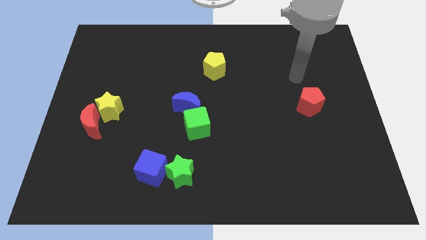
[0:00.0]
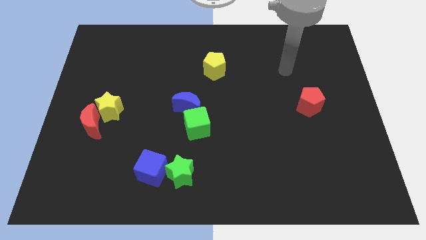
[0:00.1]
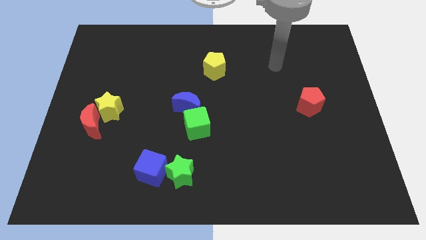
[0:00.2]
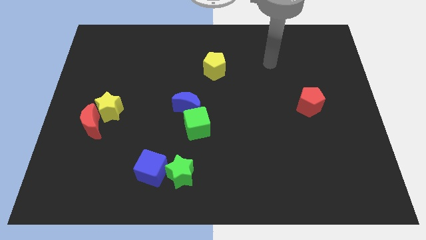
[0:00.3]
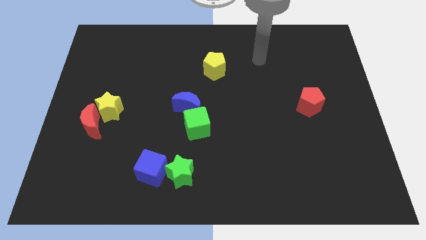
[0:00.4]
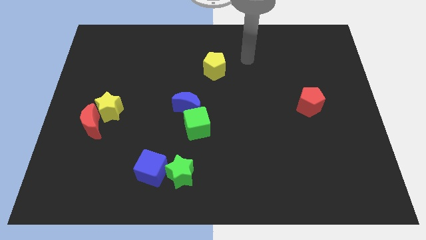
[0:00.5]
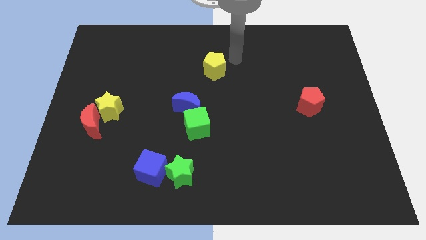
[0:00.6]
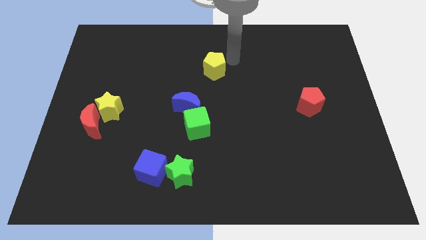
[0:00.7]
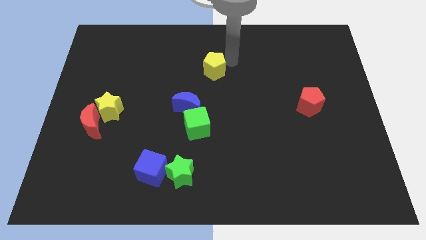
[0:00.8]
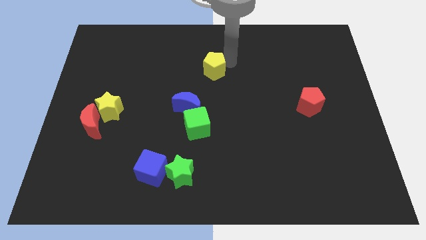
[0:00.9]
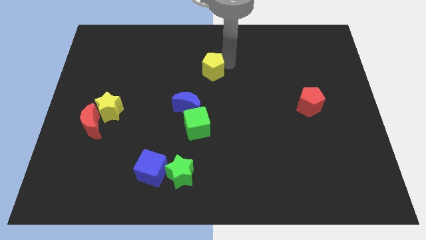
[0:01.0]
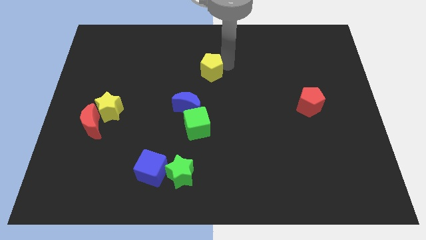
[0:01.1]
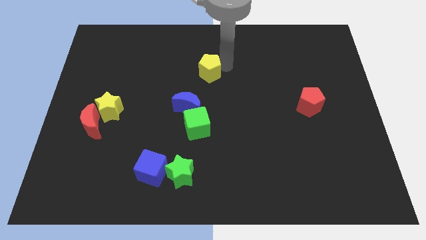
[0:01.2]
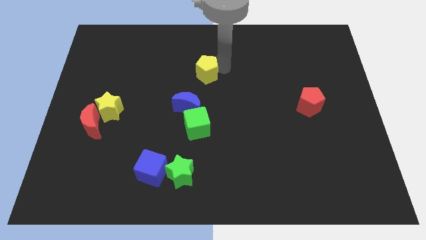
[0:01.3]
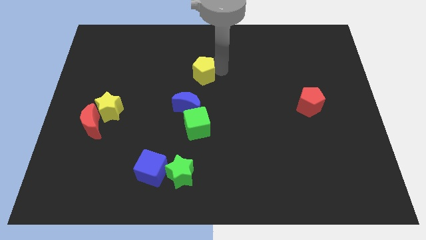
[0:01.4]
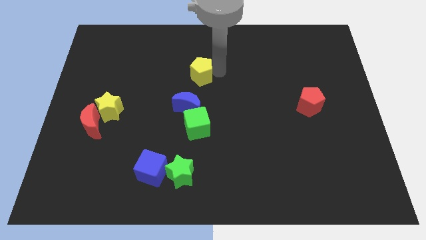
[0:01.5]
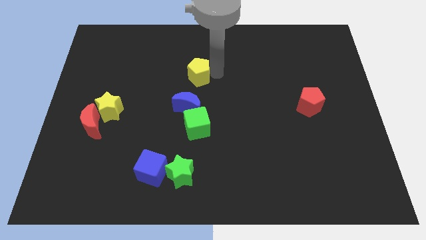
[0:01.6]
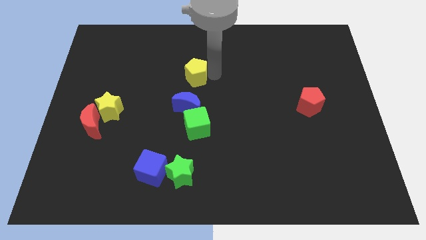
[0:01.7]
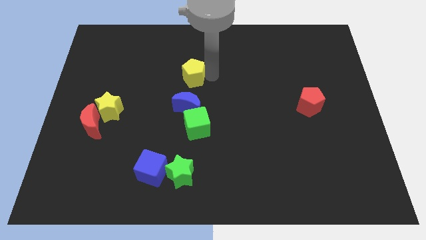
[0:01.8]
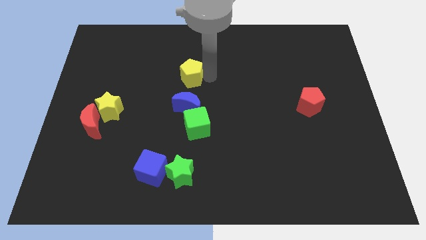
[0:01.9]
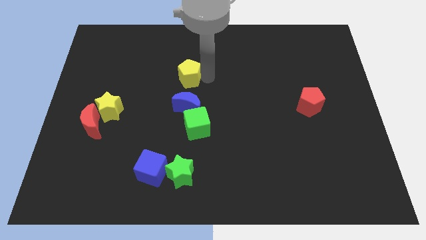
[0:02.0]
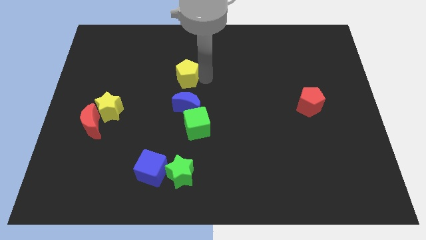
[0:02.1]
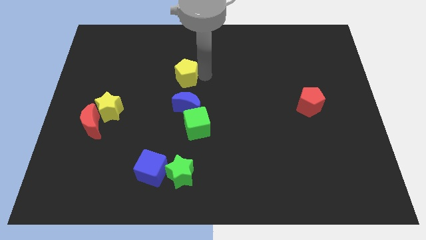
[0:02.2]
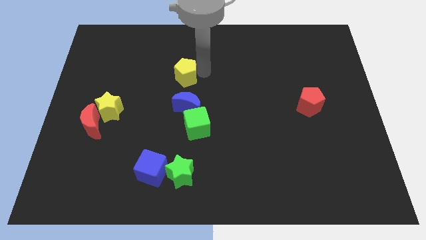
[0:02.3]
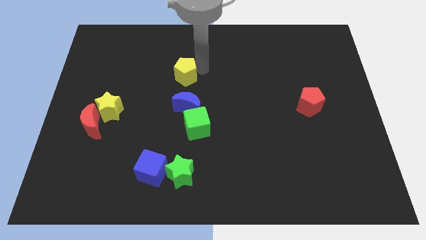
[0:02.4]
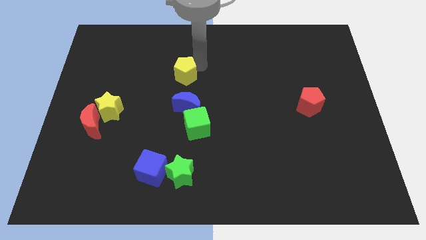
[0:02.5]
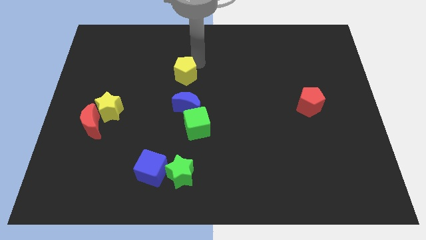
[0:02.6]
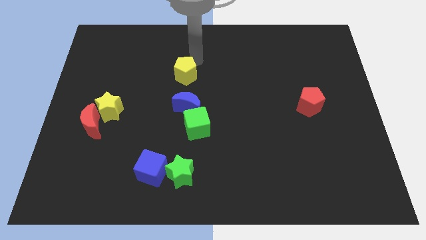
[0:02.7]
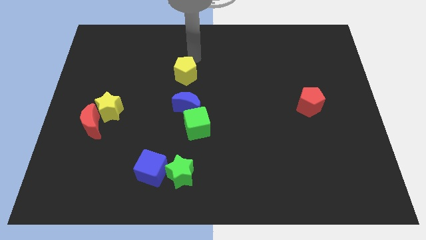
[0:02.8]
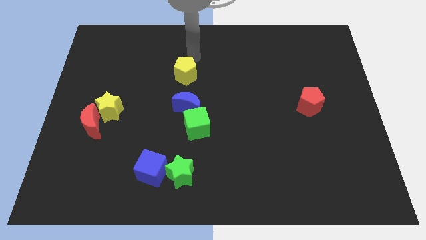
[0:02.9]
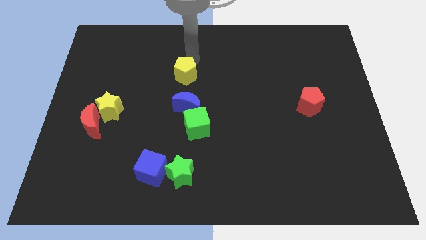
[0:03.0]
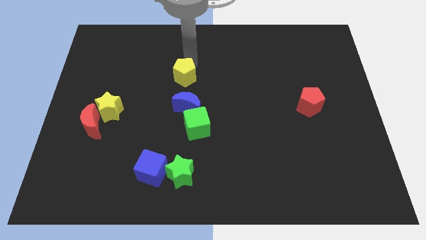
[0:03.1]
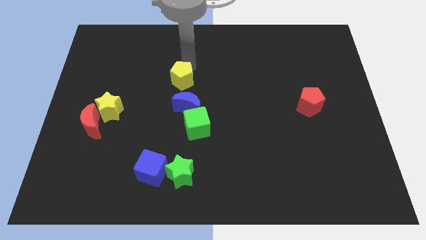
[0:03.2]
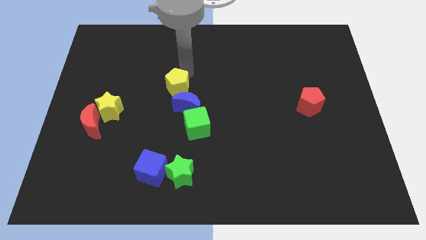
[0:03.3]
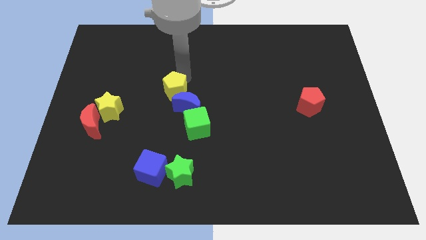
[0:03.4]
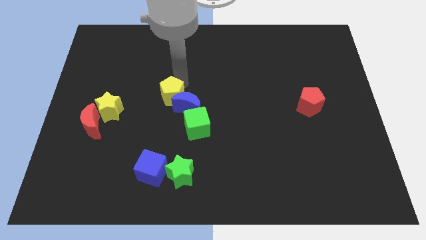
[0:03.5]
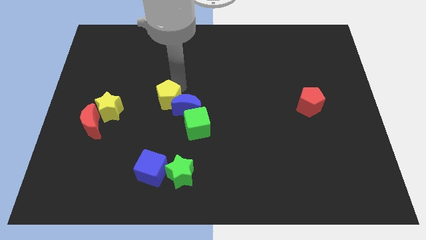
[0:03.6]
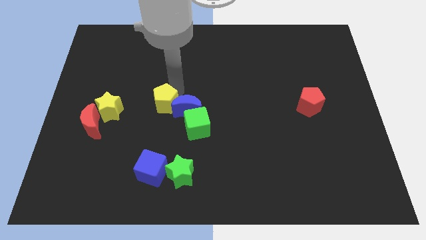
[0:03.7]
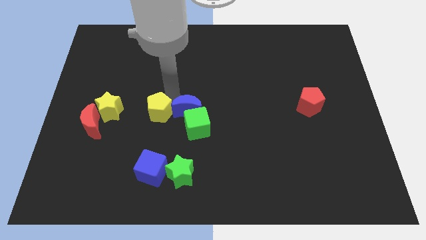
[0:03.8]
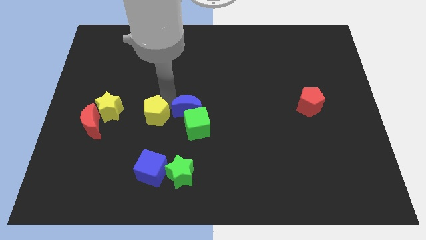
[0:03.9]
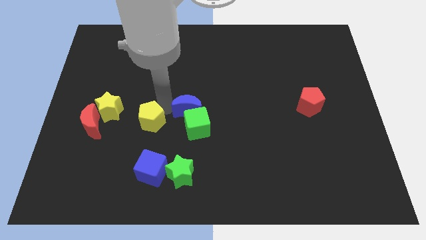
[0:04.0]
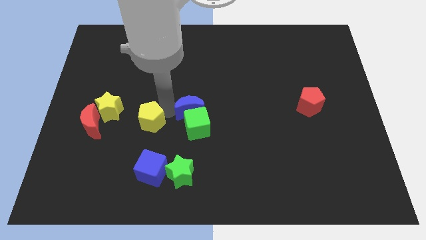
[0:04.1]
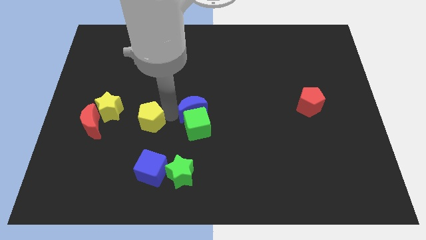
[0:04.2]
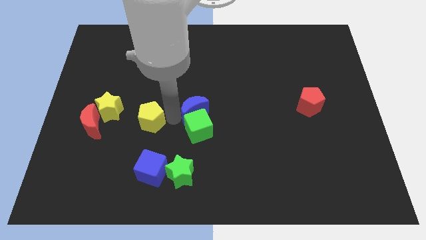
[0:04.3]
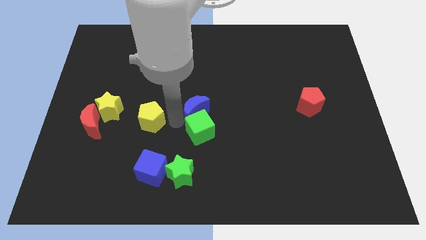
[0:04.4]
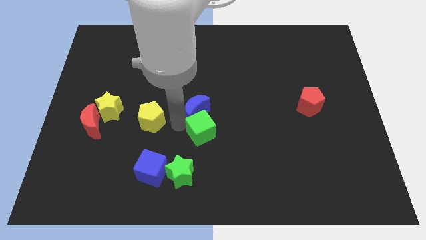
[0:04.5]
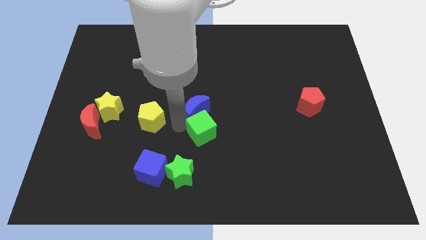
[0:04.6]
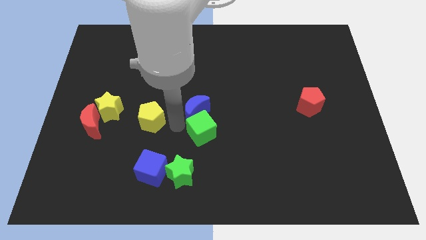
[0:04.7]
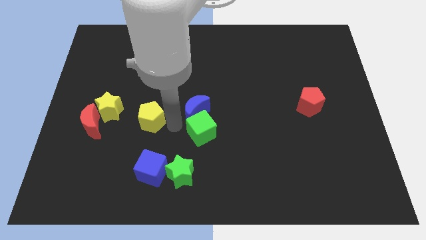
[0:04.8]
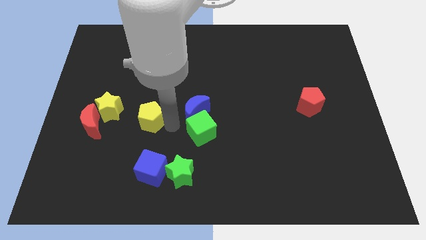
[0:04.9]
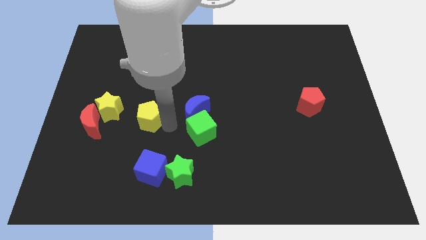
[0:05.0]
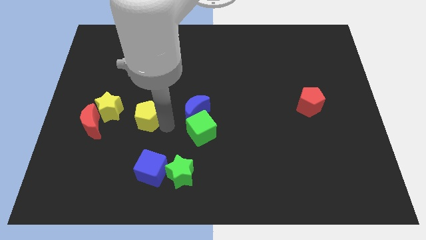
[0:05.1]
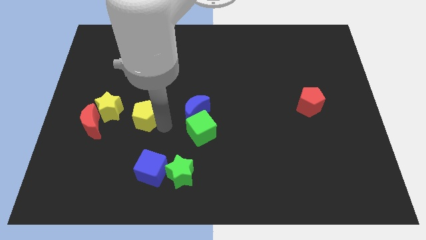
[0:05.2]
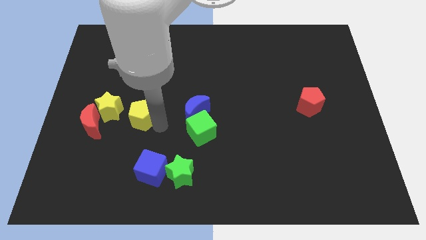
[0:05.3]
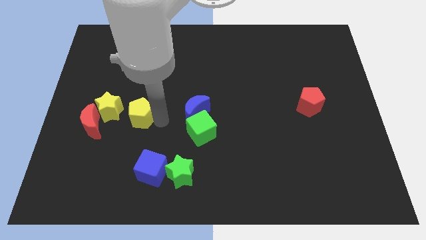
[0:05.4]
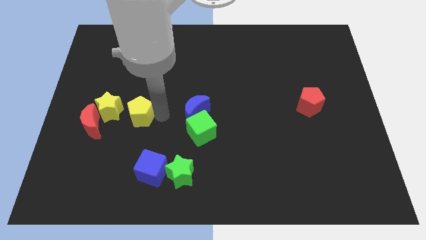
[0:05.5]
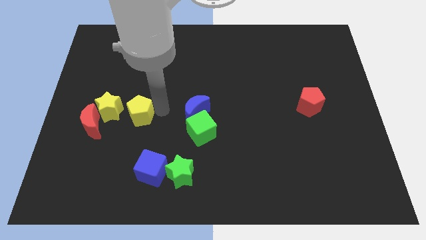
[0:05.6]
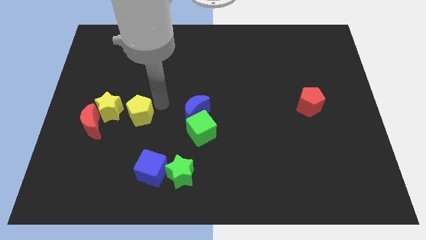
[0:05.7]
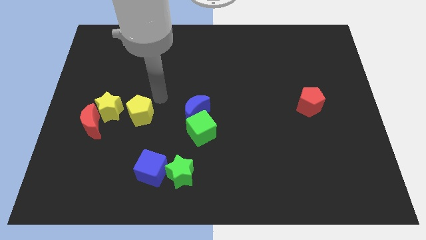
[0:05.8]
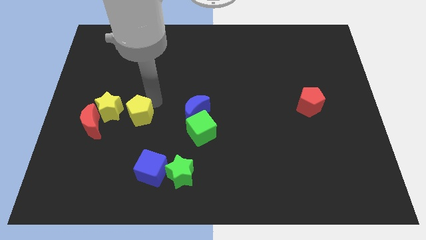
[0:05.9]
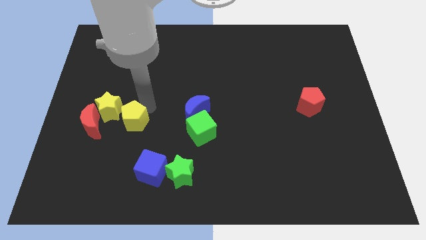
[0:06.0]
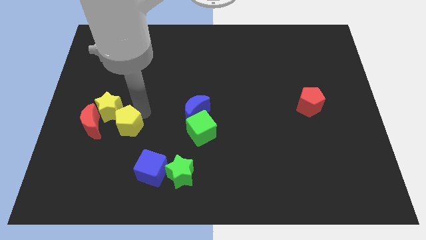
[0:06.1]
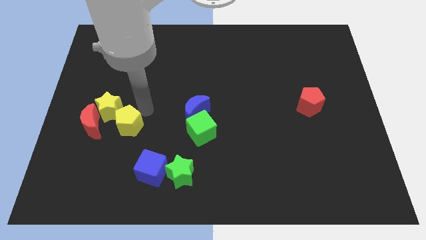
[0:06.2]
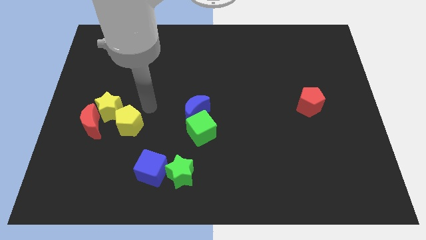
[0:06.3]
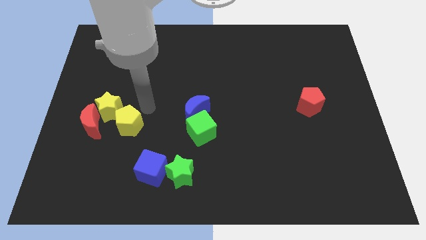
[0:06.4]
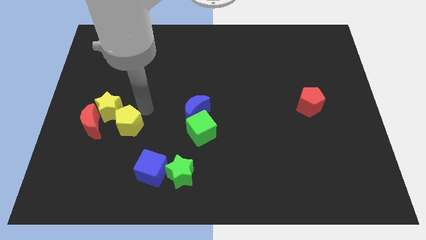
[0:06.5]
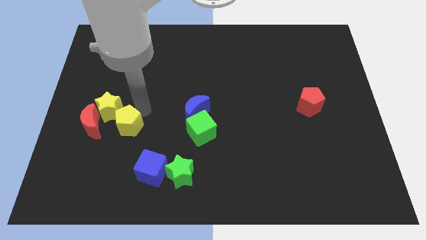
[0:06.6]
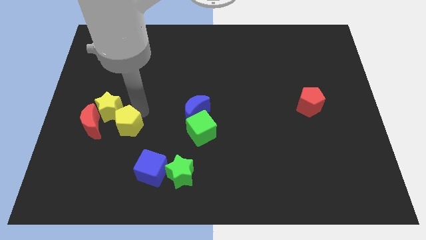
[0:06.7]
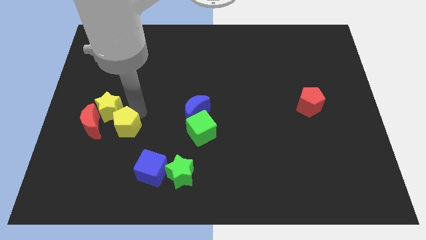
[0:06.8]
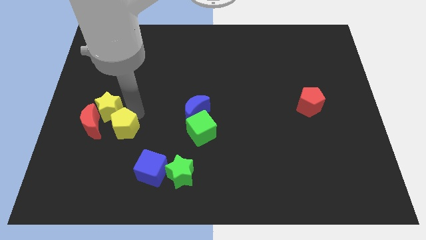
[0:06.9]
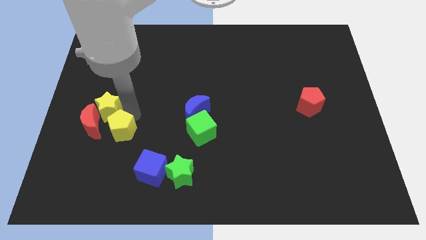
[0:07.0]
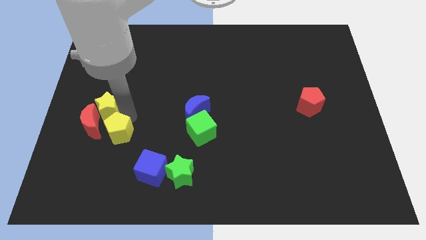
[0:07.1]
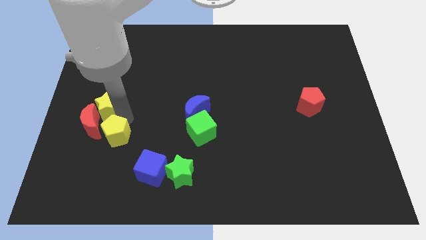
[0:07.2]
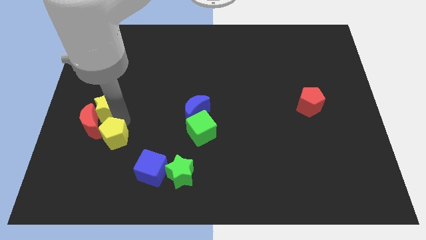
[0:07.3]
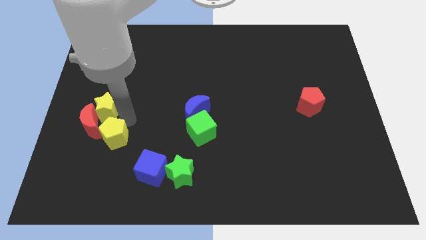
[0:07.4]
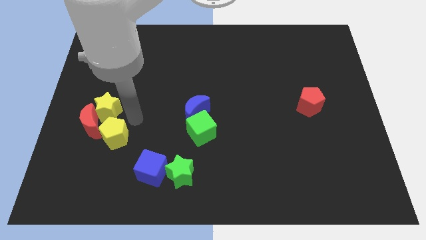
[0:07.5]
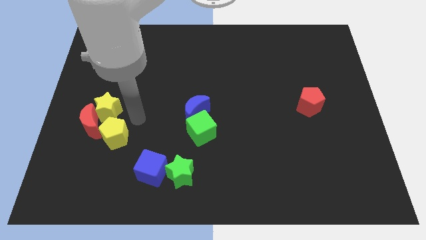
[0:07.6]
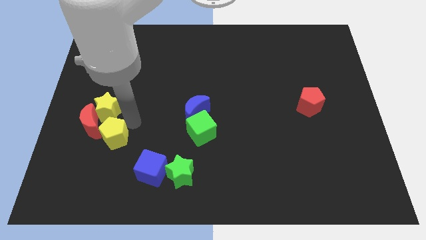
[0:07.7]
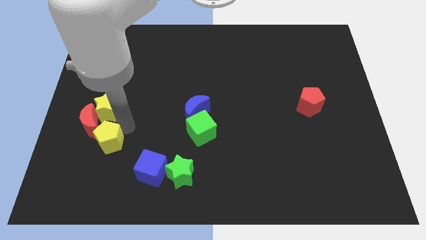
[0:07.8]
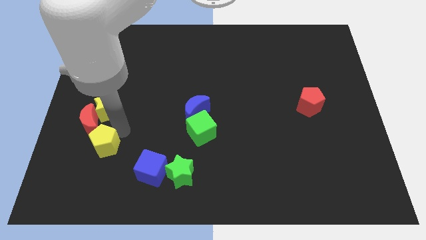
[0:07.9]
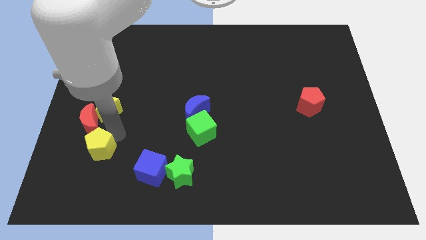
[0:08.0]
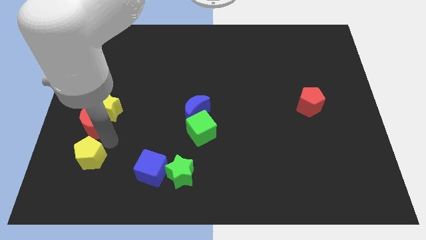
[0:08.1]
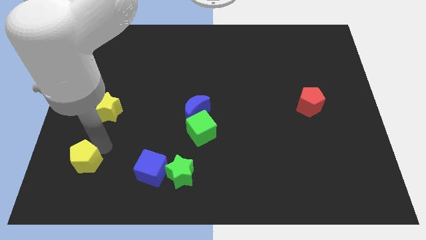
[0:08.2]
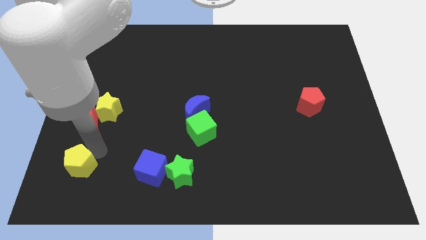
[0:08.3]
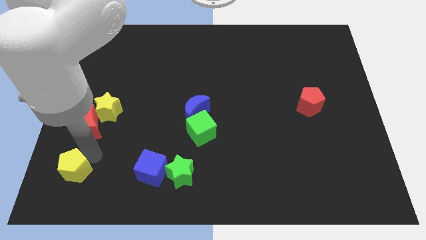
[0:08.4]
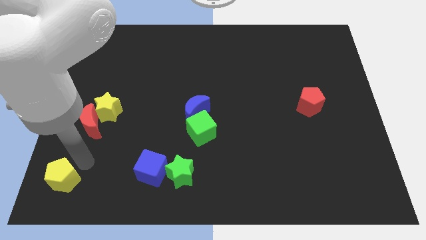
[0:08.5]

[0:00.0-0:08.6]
push the yellow pentagon to the bottom left of the board
